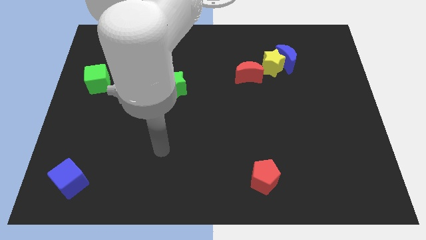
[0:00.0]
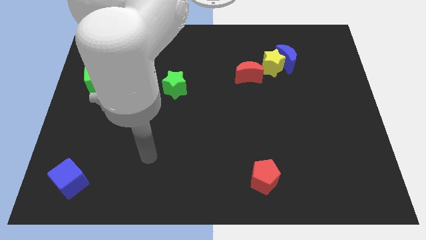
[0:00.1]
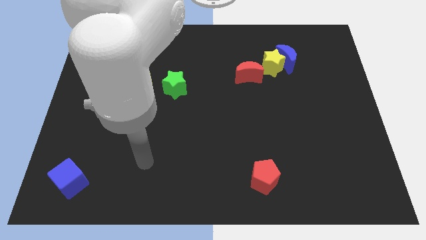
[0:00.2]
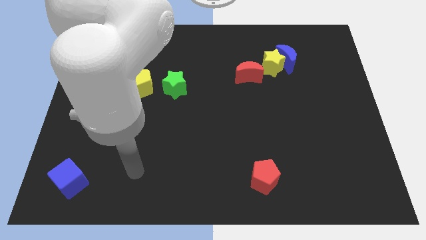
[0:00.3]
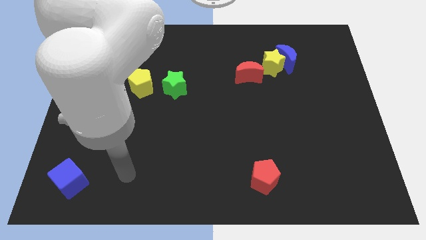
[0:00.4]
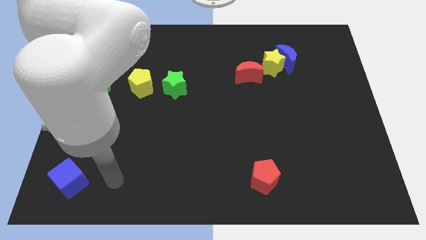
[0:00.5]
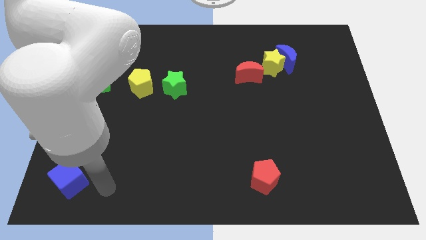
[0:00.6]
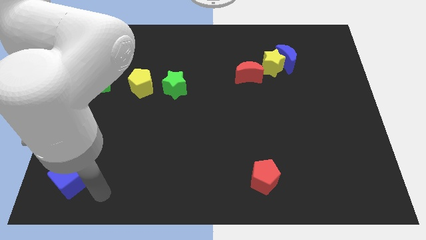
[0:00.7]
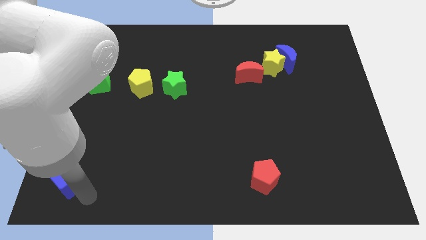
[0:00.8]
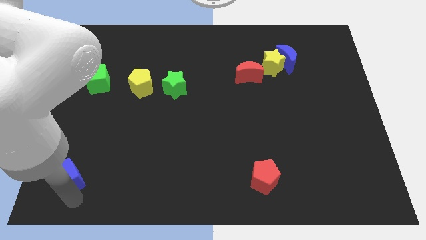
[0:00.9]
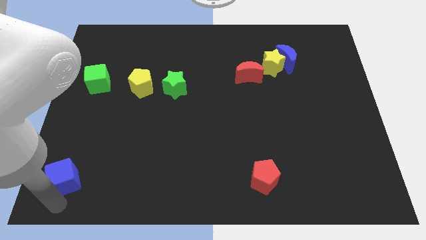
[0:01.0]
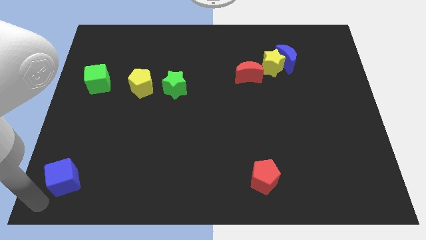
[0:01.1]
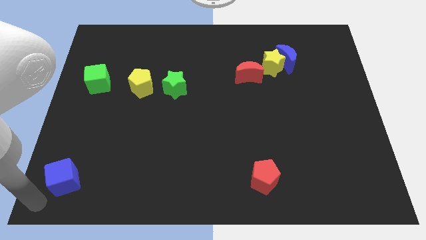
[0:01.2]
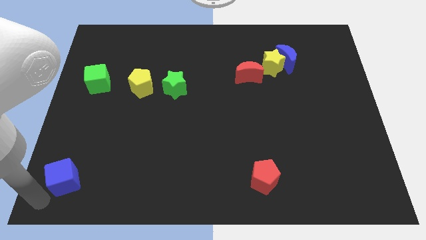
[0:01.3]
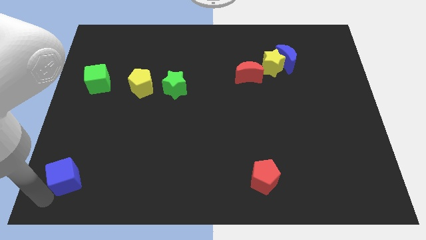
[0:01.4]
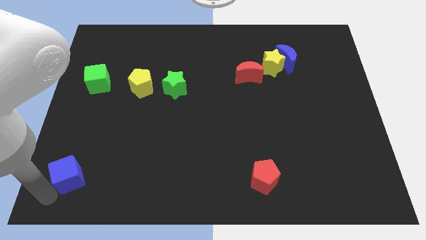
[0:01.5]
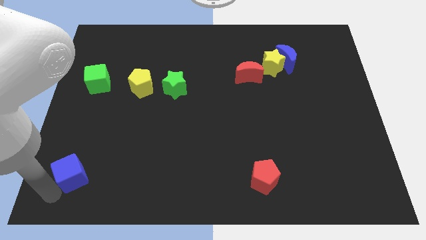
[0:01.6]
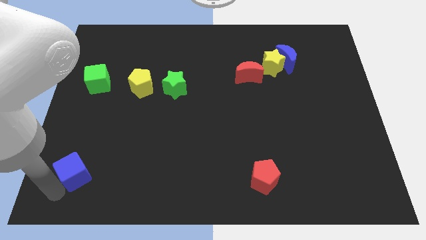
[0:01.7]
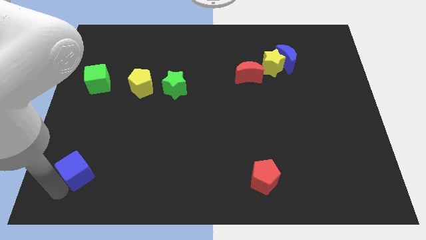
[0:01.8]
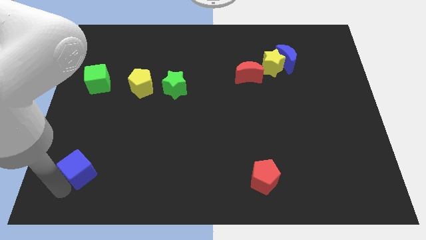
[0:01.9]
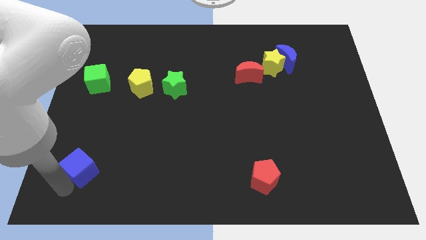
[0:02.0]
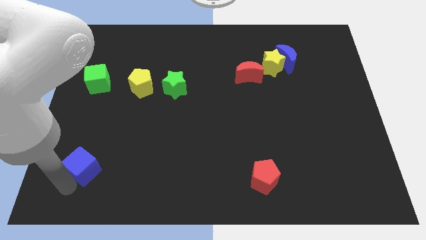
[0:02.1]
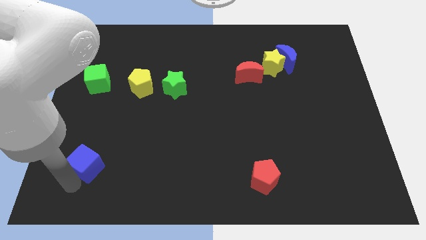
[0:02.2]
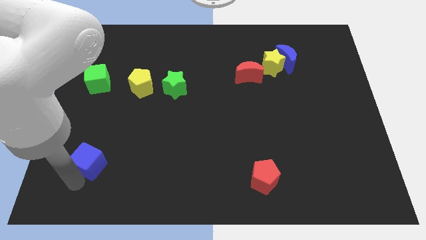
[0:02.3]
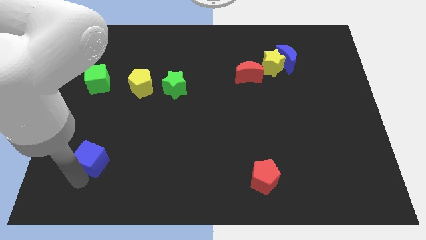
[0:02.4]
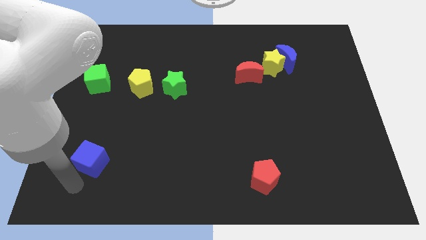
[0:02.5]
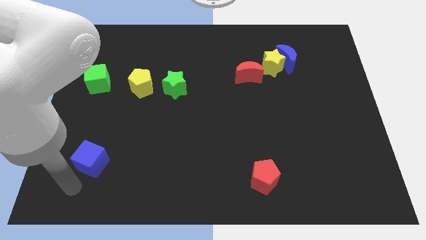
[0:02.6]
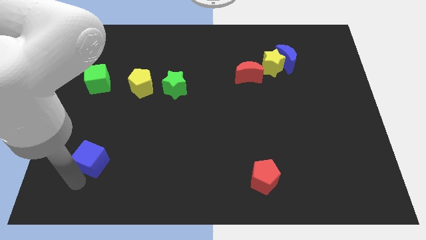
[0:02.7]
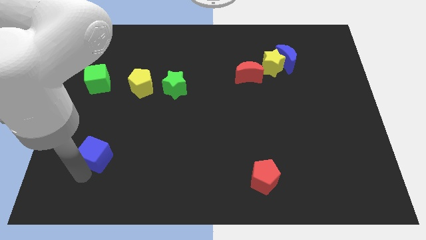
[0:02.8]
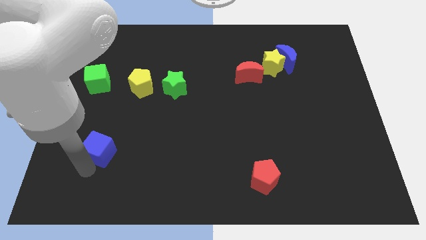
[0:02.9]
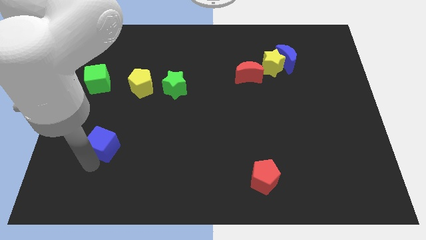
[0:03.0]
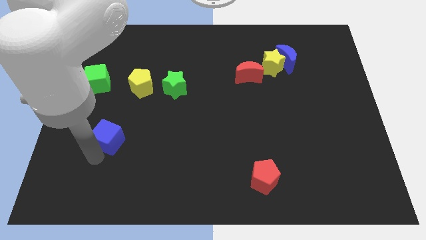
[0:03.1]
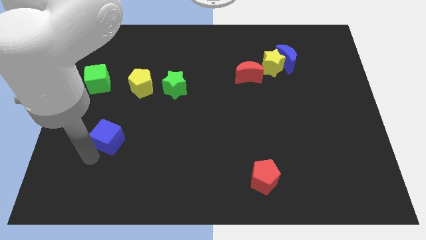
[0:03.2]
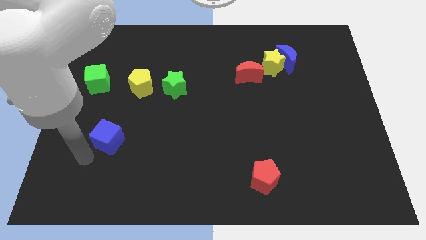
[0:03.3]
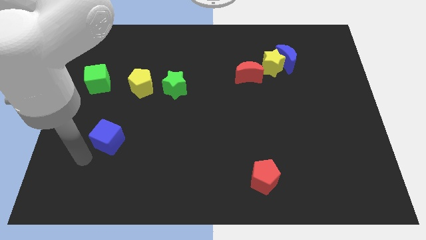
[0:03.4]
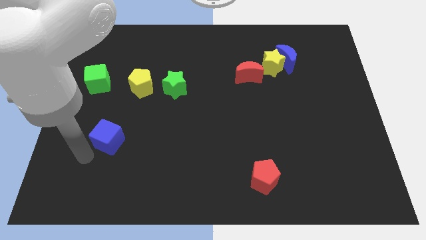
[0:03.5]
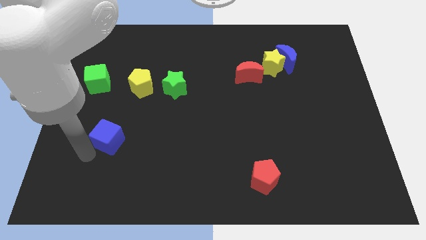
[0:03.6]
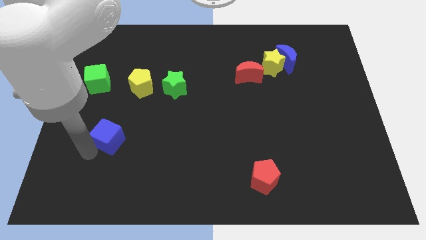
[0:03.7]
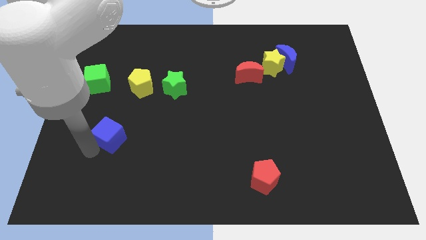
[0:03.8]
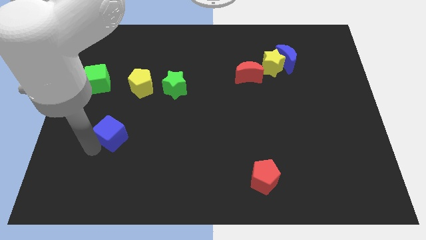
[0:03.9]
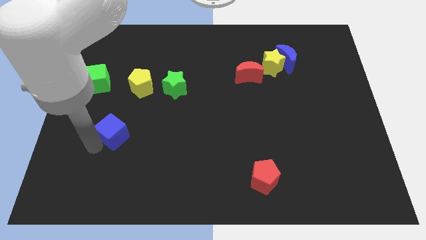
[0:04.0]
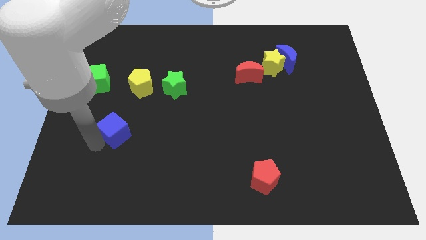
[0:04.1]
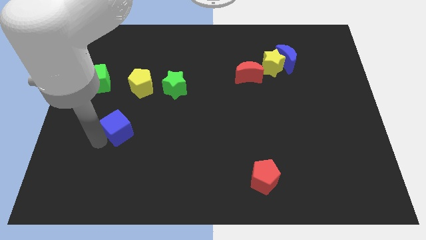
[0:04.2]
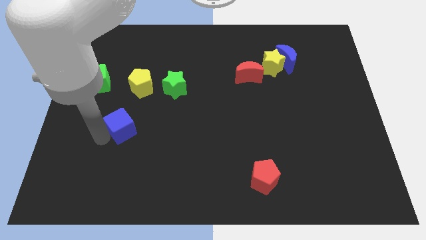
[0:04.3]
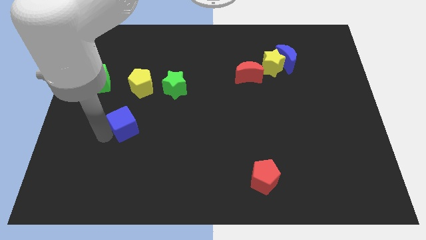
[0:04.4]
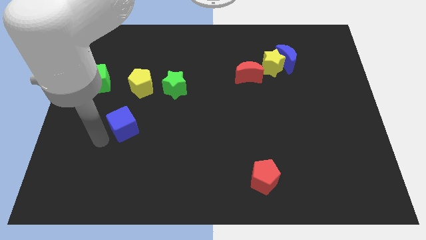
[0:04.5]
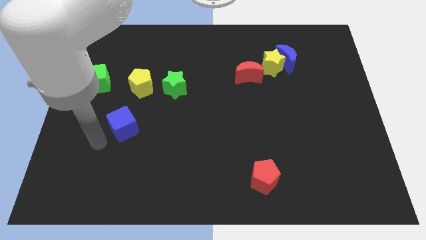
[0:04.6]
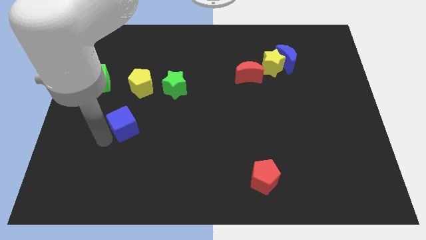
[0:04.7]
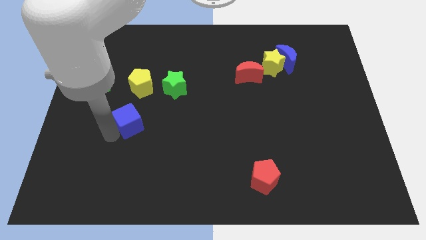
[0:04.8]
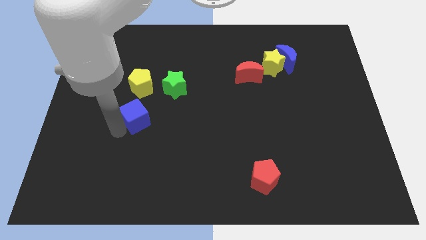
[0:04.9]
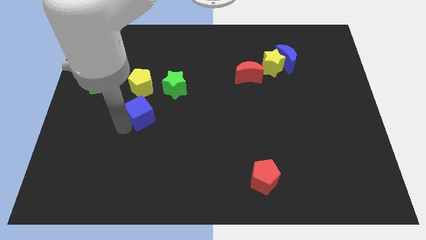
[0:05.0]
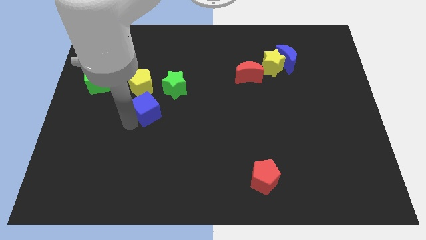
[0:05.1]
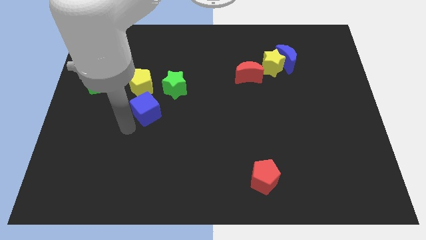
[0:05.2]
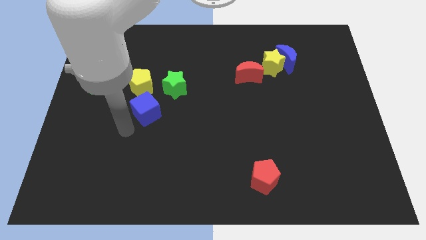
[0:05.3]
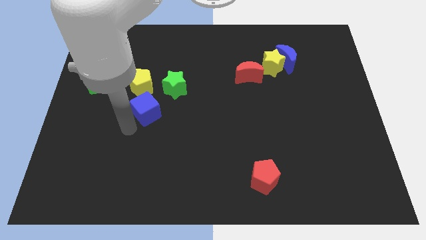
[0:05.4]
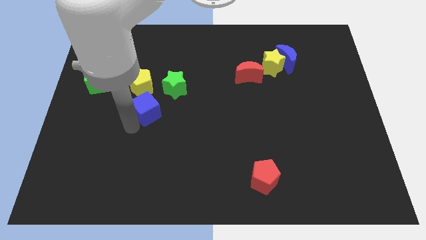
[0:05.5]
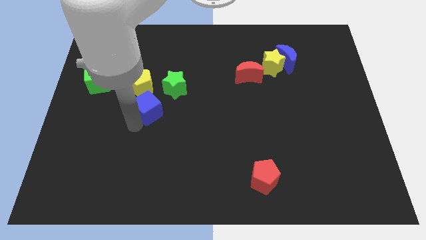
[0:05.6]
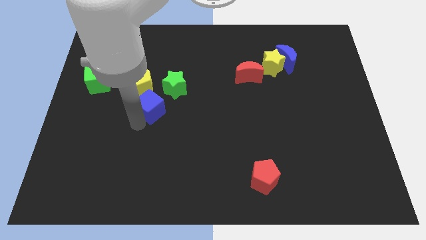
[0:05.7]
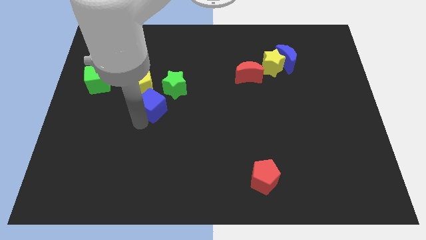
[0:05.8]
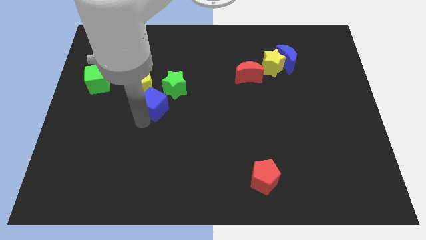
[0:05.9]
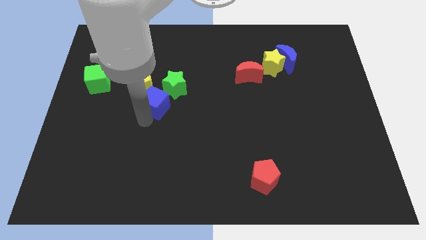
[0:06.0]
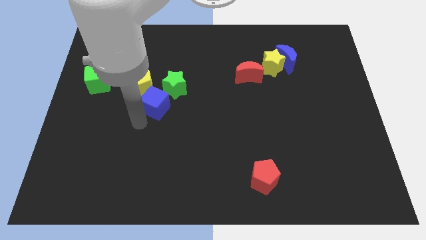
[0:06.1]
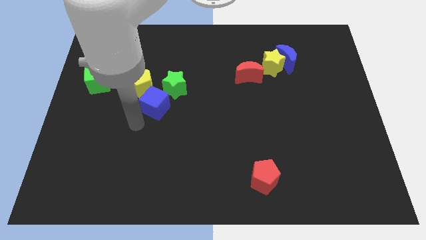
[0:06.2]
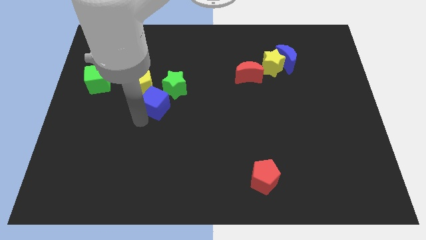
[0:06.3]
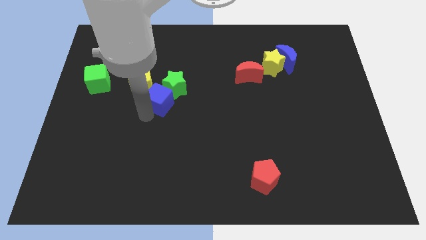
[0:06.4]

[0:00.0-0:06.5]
push the blue cube to the green star

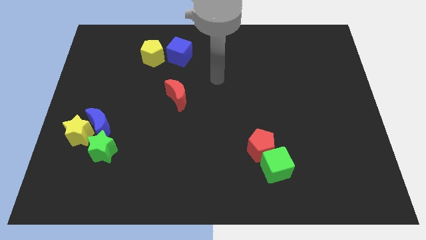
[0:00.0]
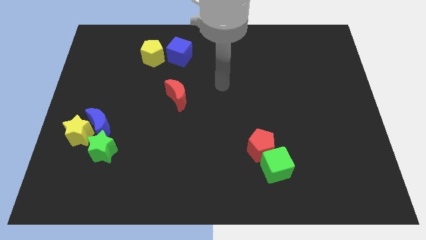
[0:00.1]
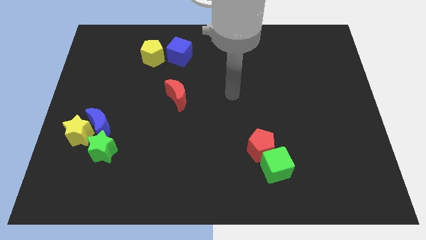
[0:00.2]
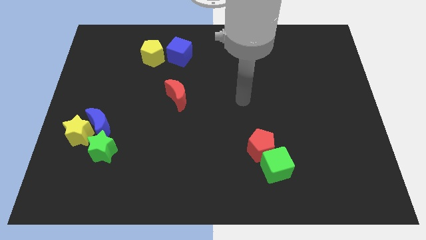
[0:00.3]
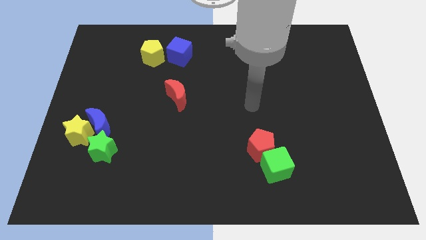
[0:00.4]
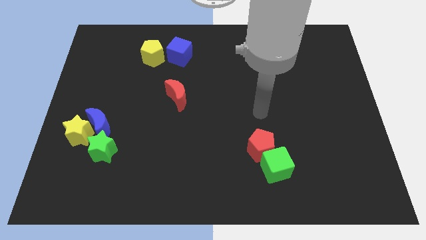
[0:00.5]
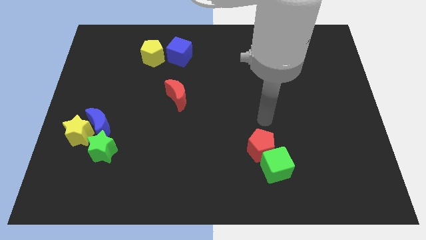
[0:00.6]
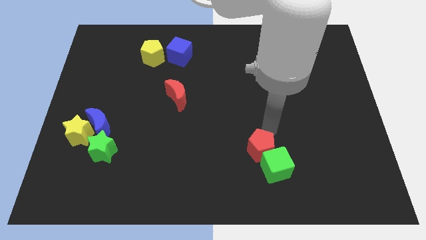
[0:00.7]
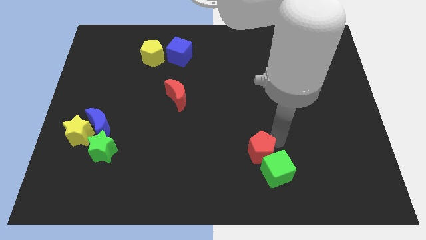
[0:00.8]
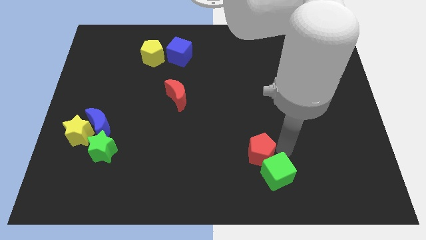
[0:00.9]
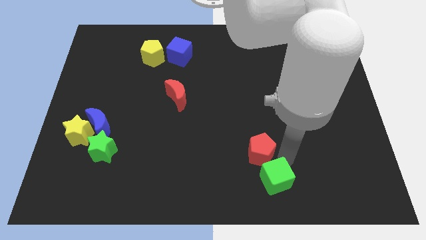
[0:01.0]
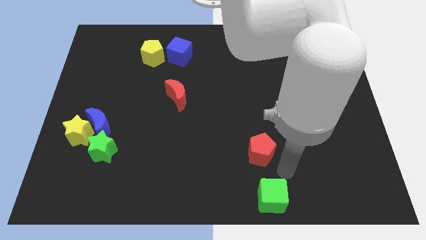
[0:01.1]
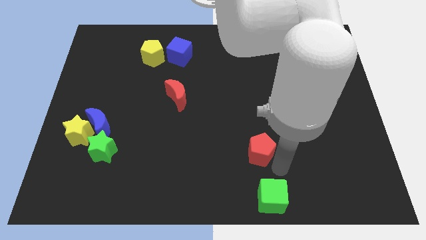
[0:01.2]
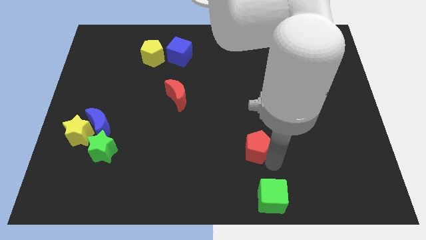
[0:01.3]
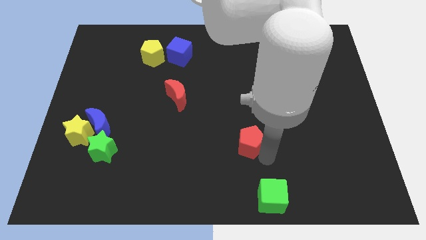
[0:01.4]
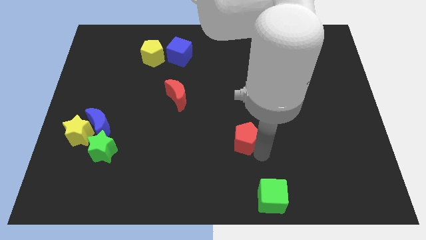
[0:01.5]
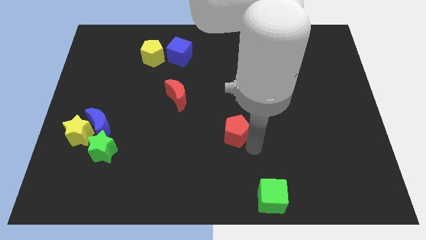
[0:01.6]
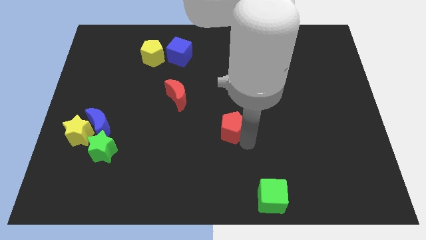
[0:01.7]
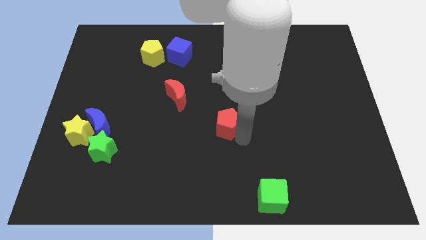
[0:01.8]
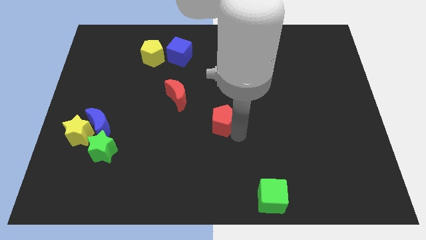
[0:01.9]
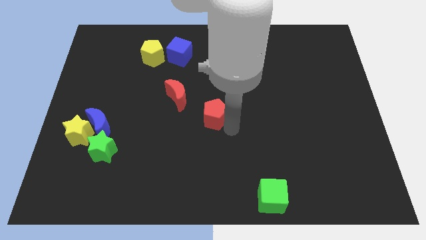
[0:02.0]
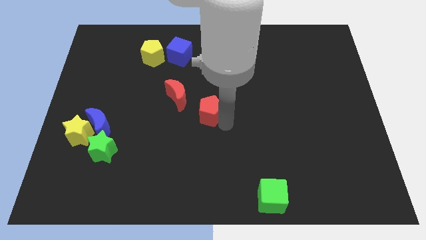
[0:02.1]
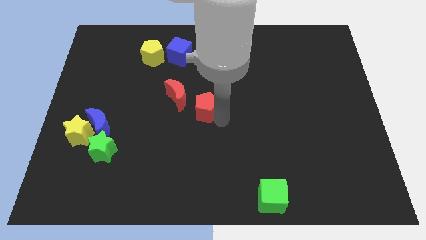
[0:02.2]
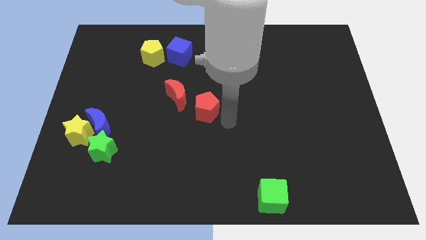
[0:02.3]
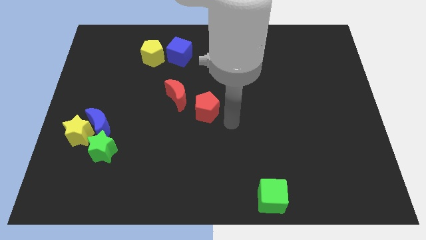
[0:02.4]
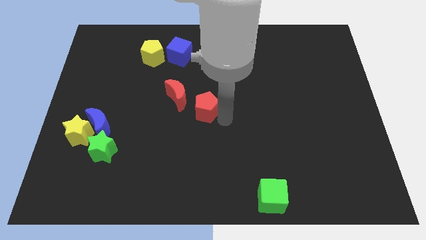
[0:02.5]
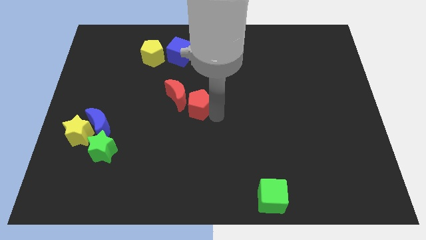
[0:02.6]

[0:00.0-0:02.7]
put the red pentagon next to the red moon
